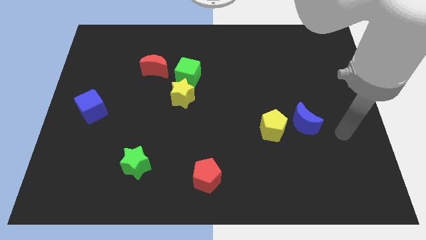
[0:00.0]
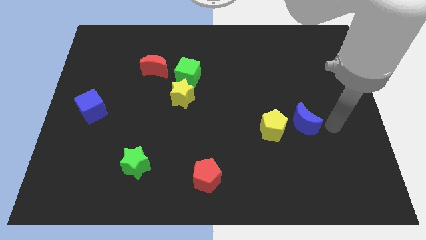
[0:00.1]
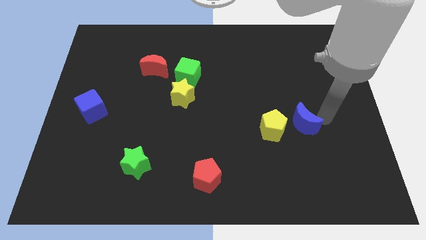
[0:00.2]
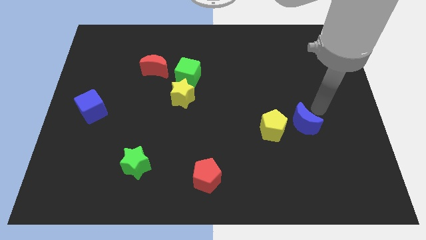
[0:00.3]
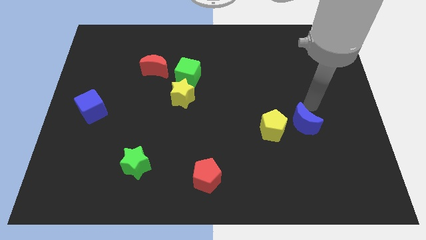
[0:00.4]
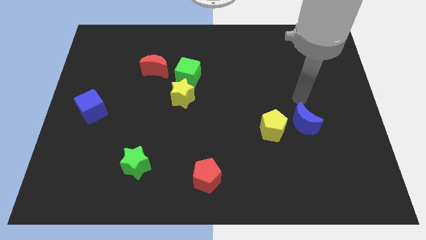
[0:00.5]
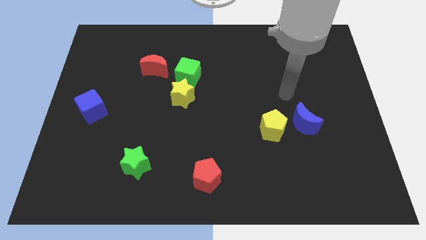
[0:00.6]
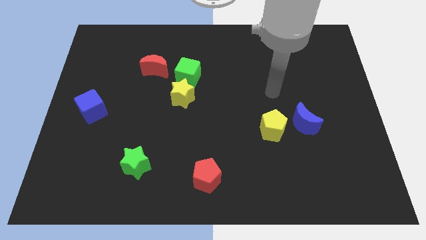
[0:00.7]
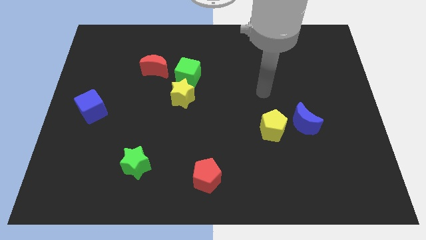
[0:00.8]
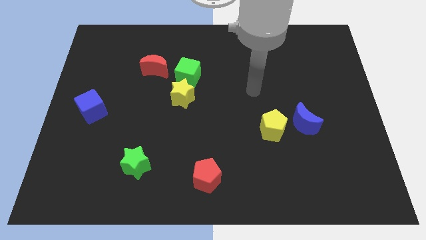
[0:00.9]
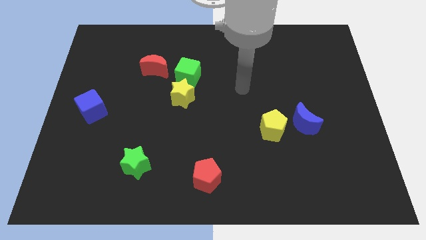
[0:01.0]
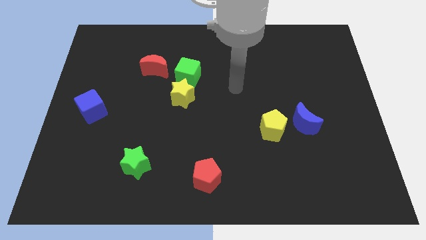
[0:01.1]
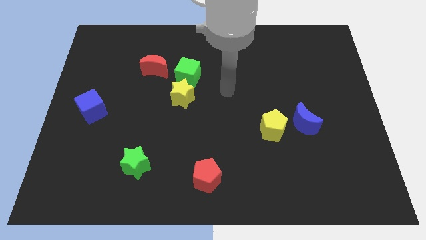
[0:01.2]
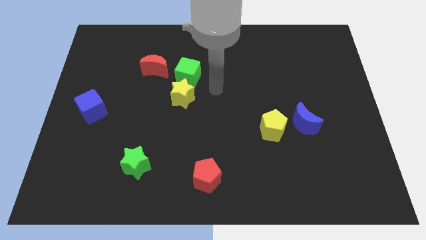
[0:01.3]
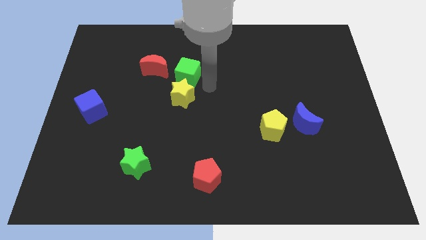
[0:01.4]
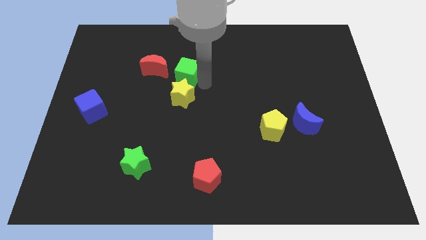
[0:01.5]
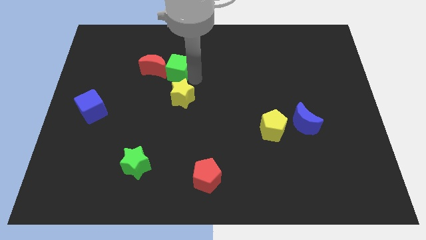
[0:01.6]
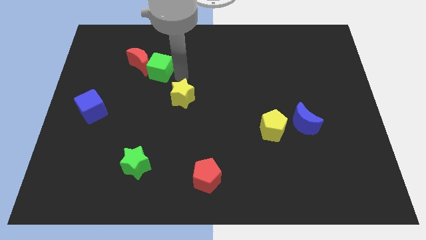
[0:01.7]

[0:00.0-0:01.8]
pull the yellow star apart from the green cube

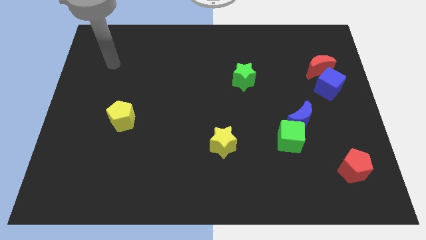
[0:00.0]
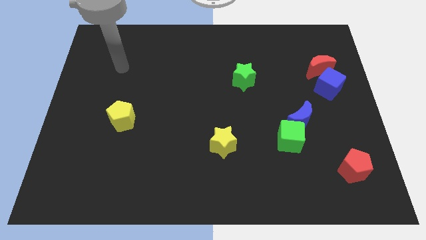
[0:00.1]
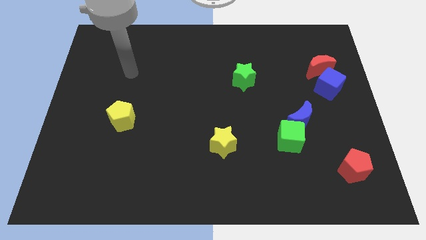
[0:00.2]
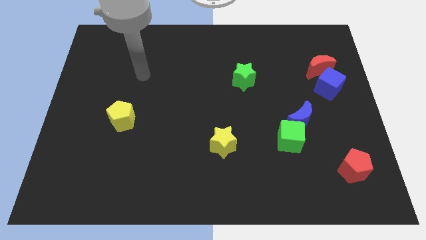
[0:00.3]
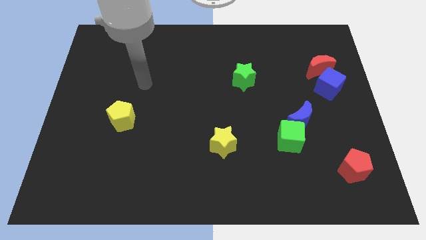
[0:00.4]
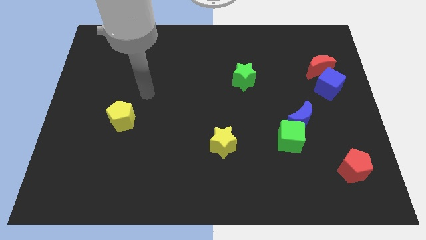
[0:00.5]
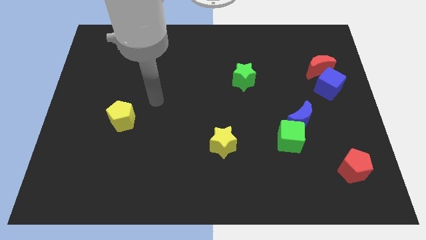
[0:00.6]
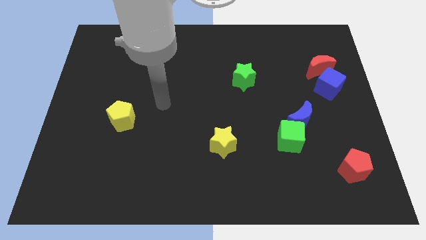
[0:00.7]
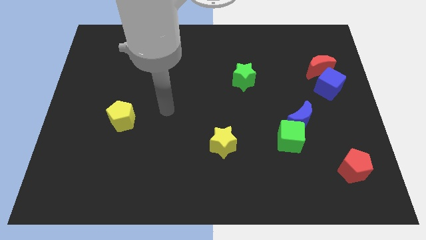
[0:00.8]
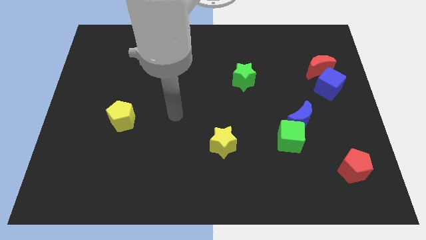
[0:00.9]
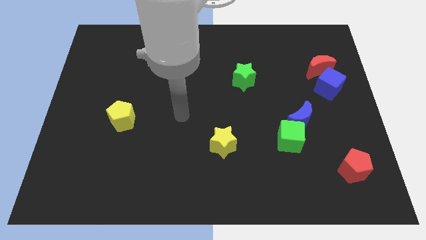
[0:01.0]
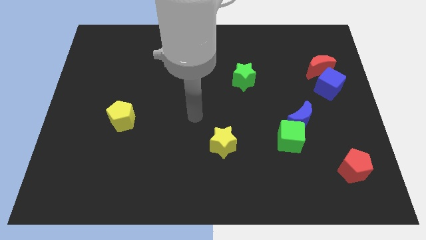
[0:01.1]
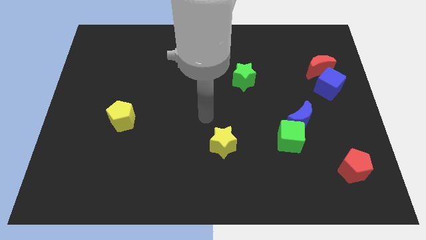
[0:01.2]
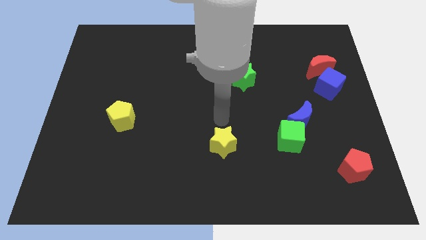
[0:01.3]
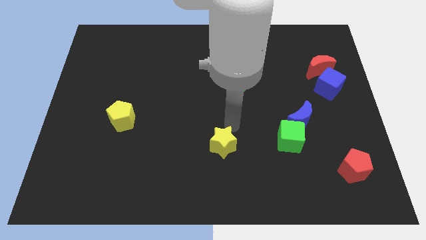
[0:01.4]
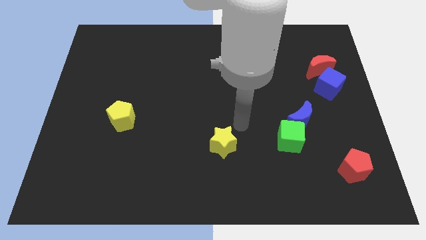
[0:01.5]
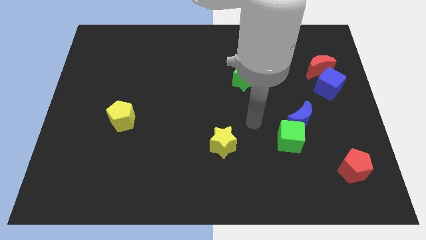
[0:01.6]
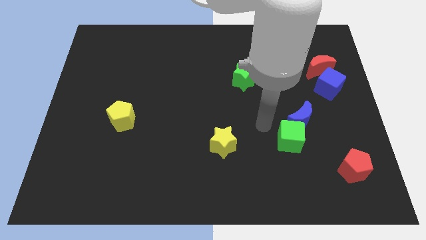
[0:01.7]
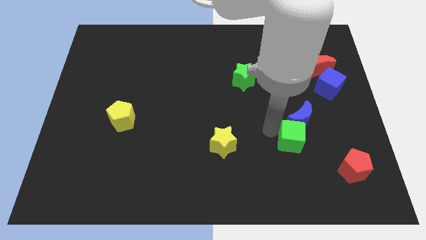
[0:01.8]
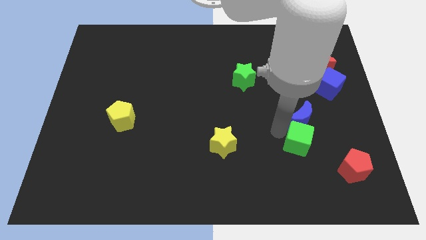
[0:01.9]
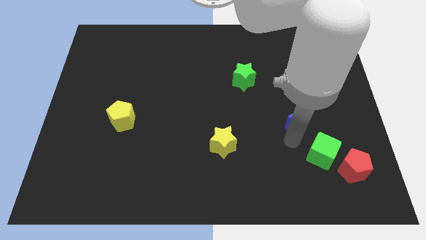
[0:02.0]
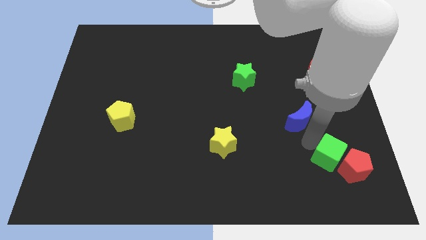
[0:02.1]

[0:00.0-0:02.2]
pull the blue moon apart from the green cube

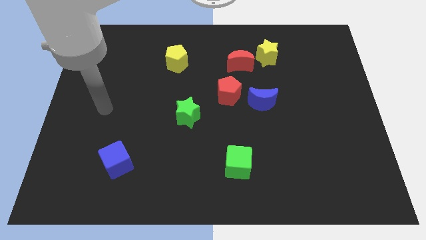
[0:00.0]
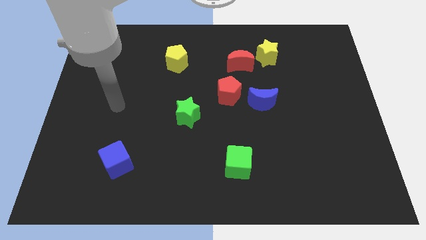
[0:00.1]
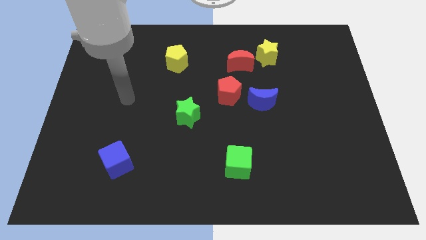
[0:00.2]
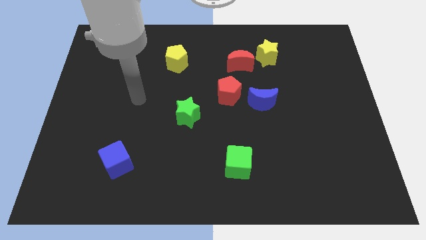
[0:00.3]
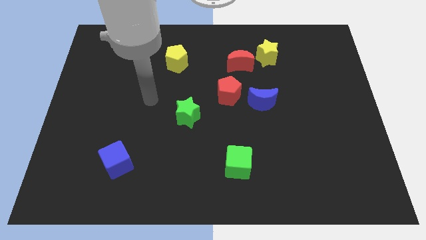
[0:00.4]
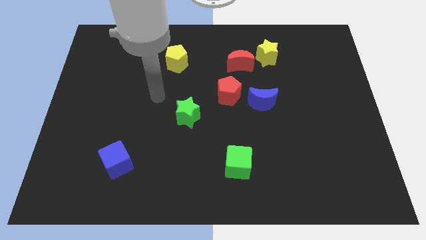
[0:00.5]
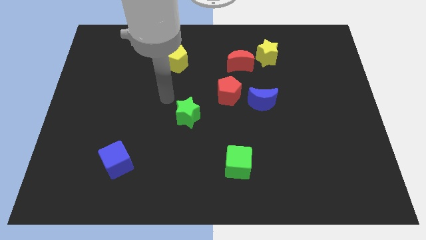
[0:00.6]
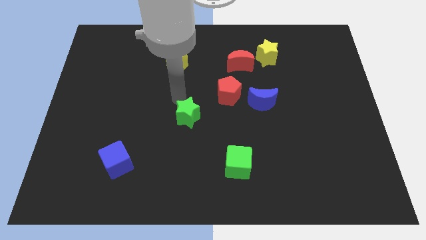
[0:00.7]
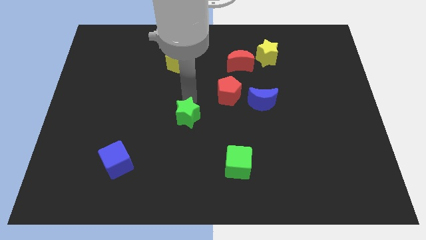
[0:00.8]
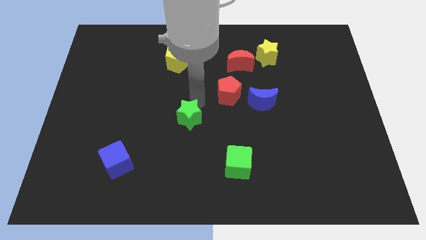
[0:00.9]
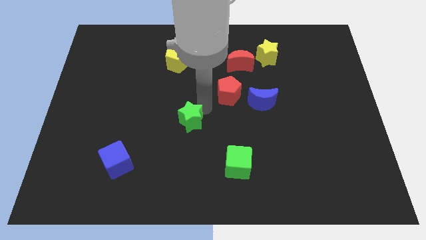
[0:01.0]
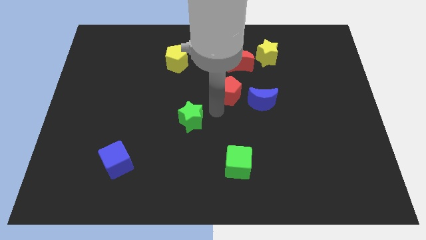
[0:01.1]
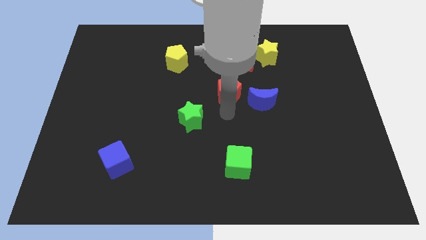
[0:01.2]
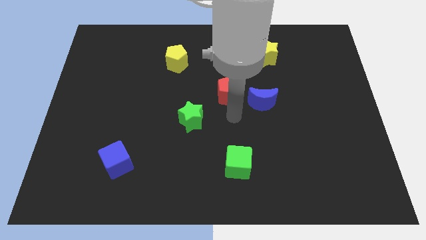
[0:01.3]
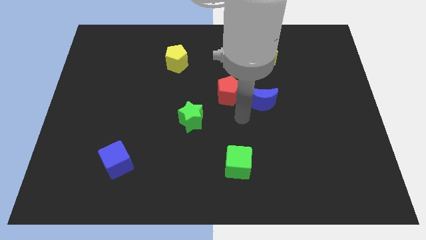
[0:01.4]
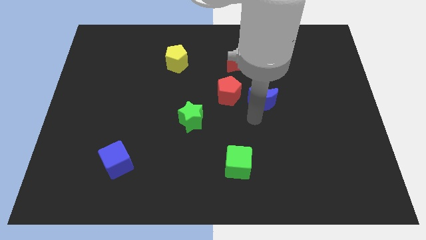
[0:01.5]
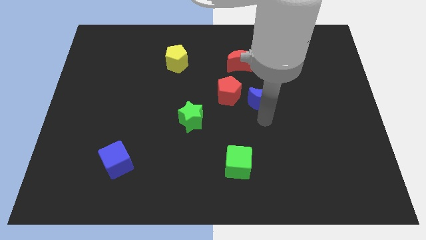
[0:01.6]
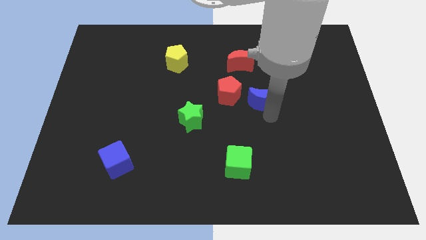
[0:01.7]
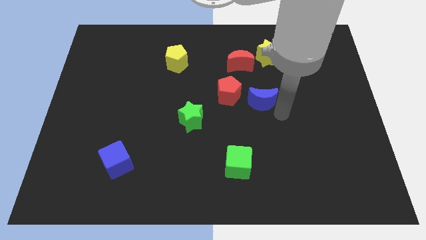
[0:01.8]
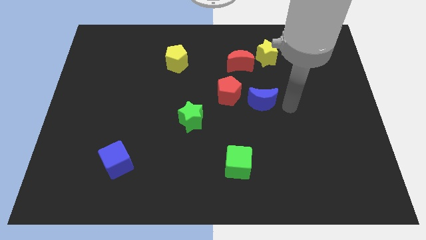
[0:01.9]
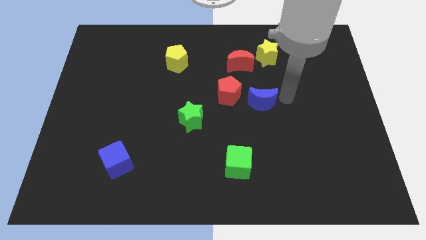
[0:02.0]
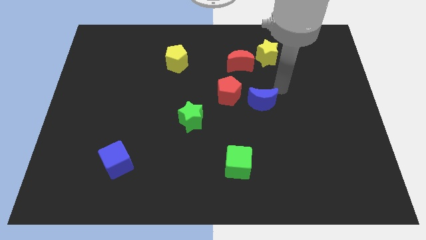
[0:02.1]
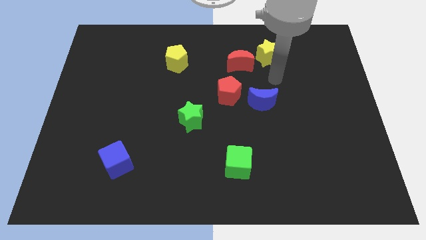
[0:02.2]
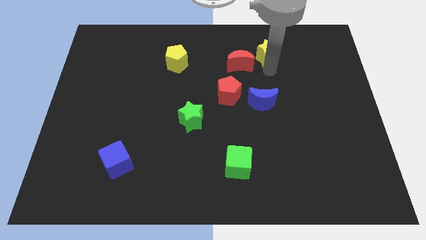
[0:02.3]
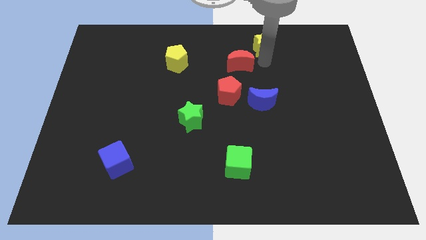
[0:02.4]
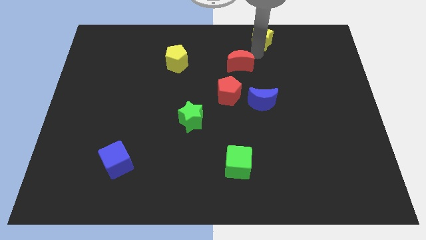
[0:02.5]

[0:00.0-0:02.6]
pull the red moon apart from the yellow star

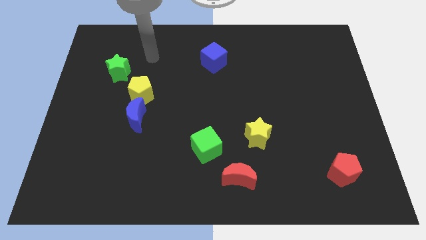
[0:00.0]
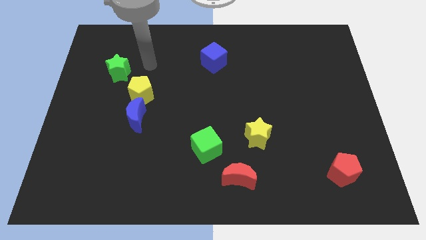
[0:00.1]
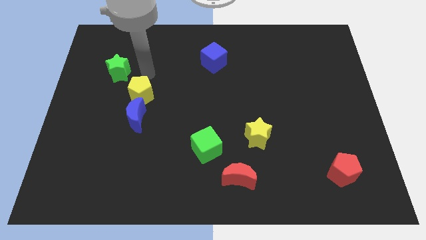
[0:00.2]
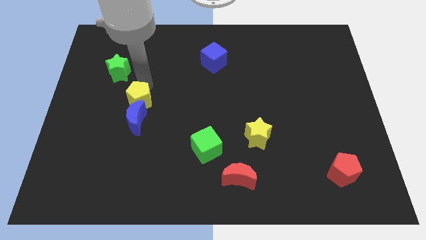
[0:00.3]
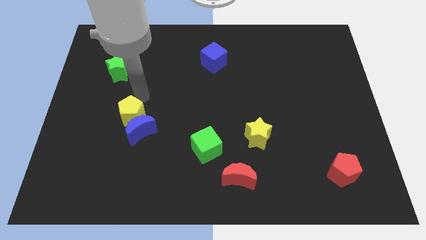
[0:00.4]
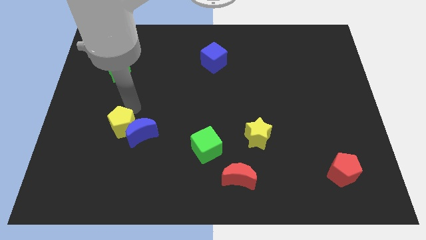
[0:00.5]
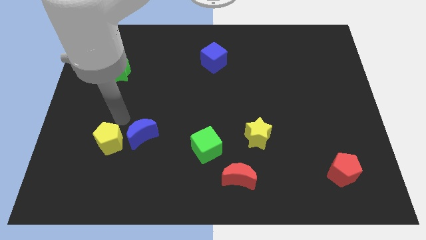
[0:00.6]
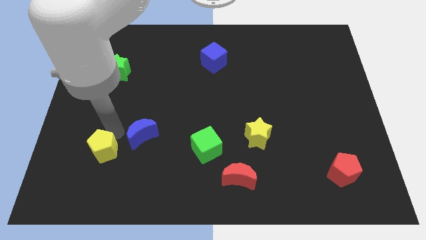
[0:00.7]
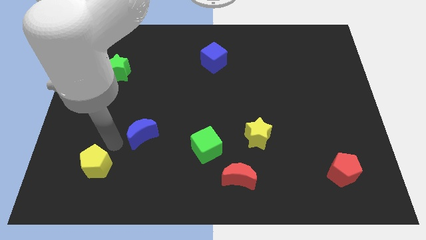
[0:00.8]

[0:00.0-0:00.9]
pull the blue moon apart from the yellow pentagon

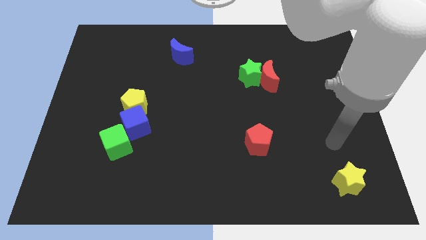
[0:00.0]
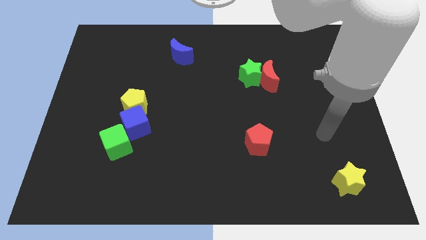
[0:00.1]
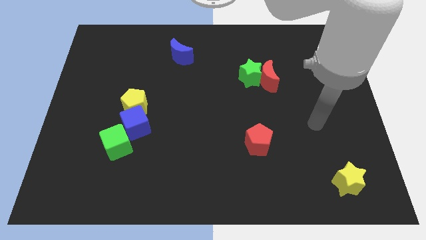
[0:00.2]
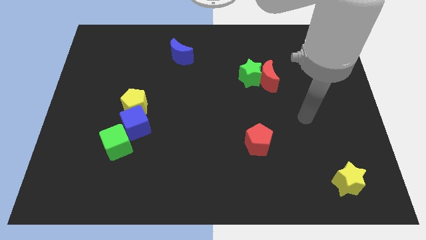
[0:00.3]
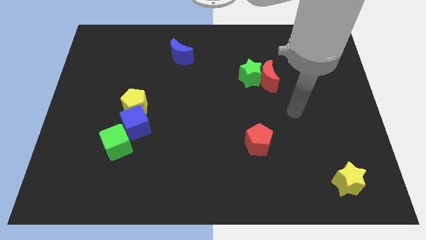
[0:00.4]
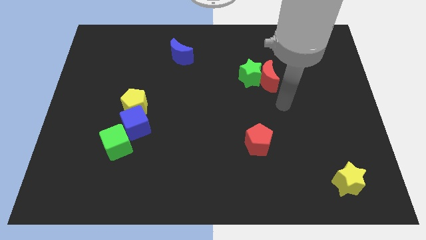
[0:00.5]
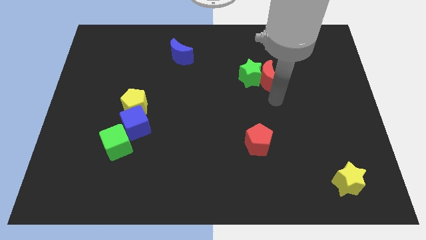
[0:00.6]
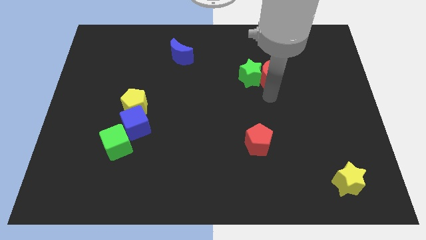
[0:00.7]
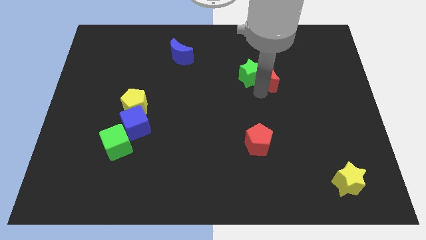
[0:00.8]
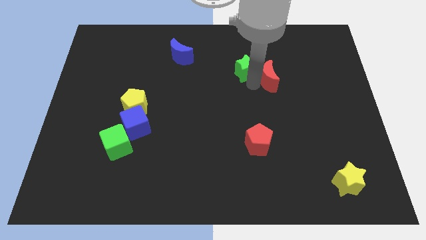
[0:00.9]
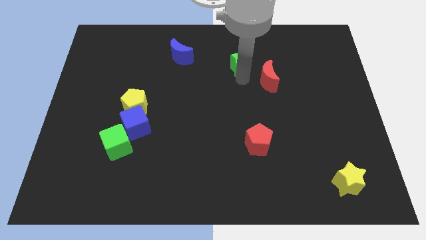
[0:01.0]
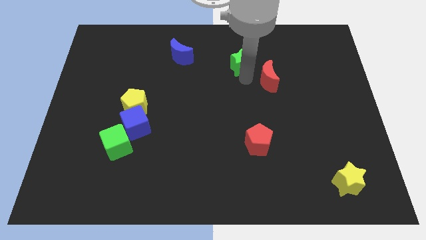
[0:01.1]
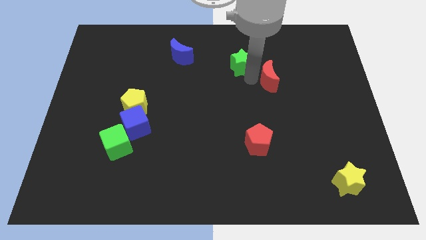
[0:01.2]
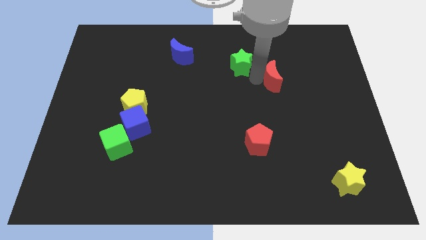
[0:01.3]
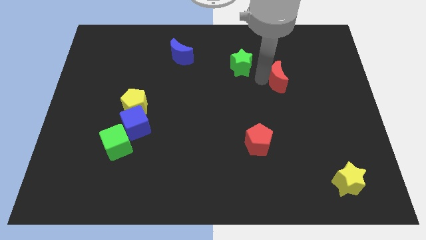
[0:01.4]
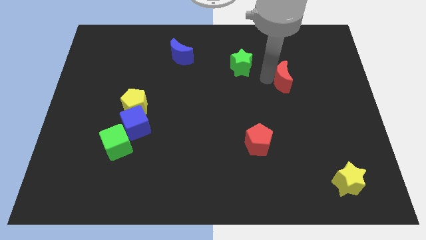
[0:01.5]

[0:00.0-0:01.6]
pull the red moon apart from the green star

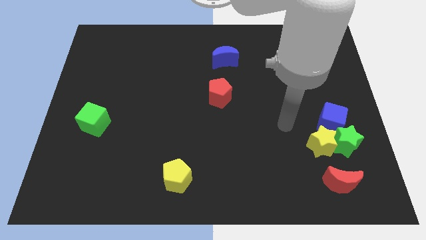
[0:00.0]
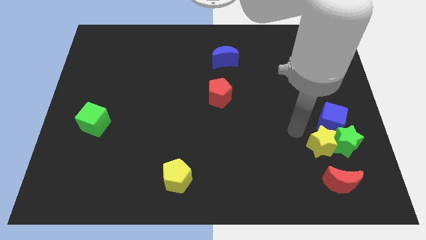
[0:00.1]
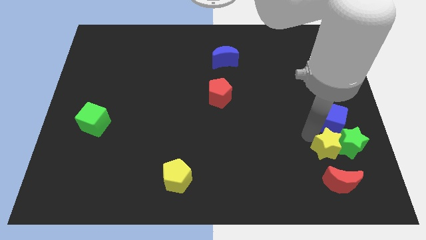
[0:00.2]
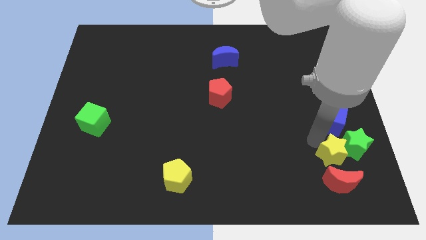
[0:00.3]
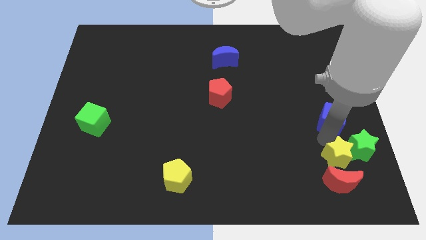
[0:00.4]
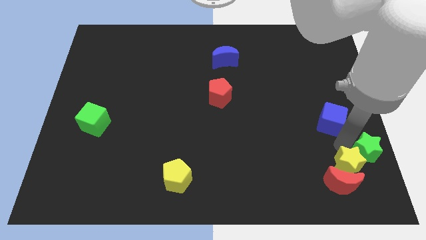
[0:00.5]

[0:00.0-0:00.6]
pull the blue cube apart from the green star and yellow star
